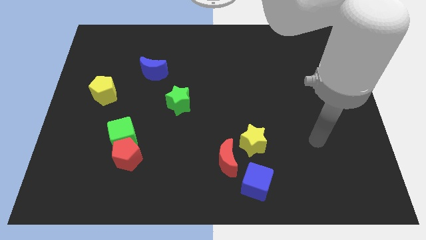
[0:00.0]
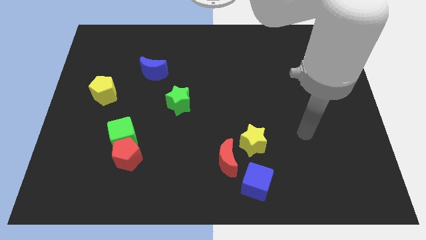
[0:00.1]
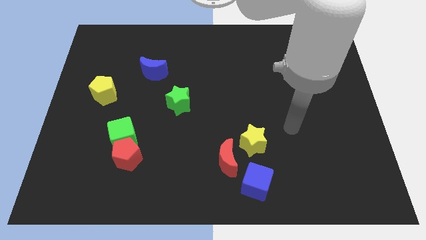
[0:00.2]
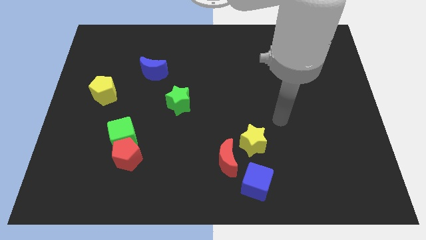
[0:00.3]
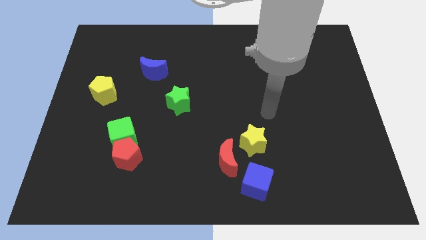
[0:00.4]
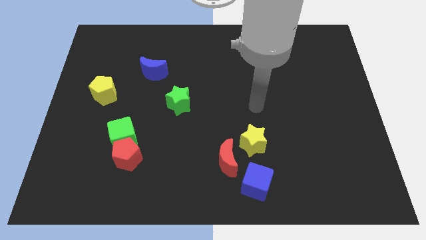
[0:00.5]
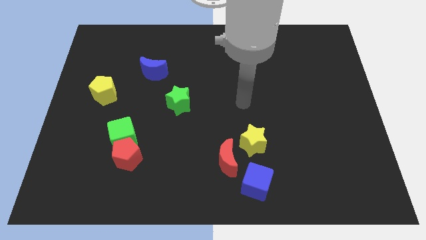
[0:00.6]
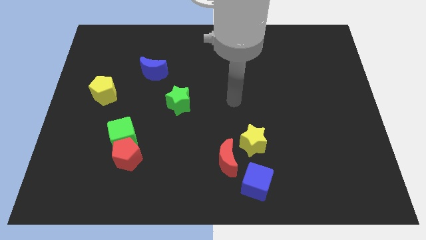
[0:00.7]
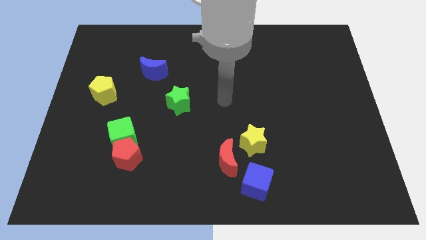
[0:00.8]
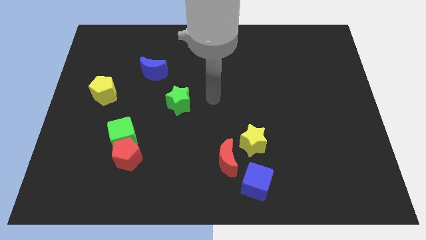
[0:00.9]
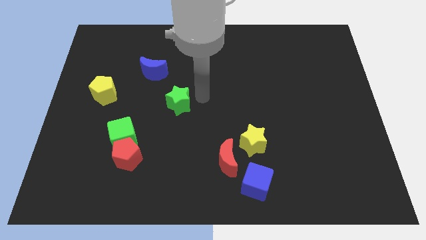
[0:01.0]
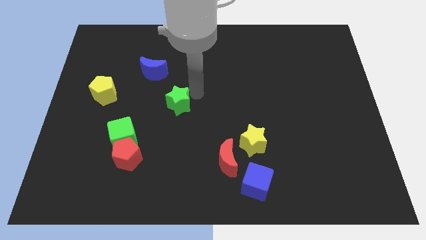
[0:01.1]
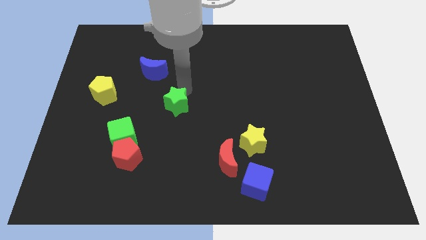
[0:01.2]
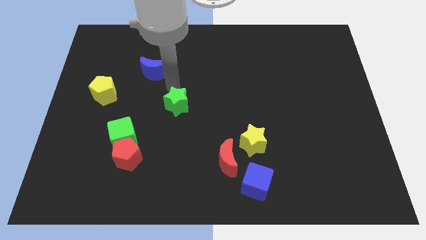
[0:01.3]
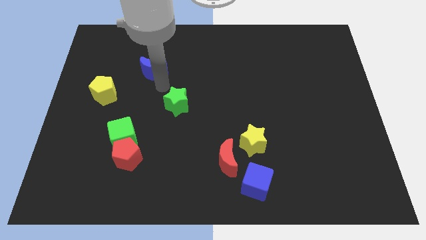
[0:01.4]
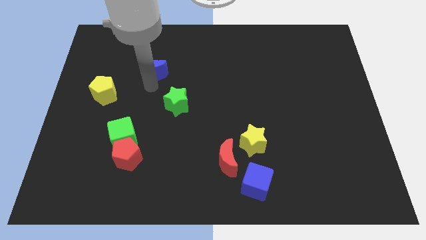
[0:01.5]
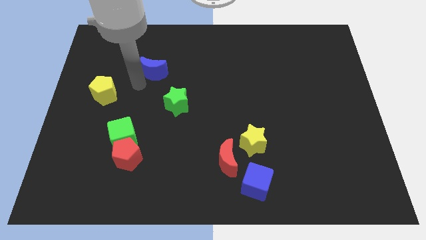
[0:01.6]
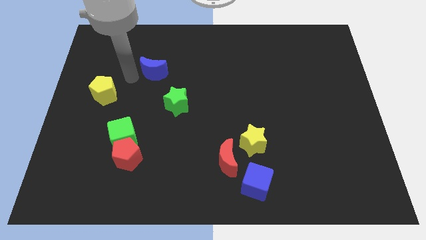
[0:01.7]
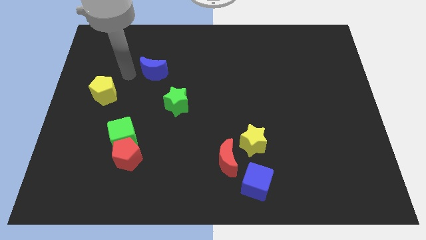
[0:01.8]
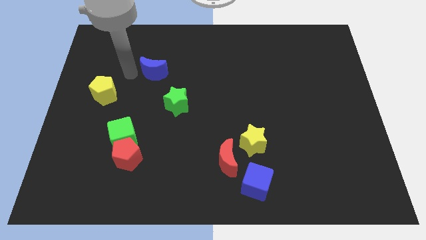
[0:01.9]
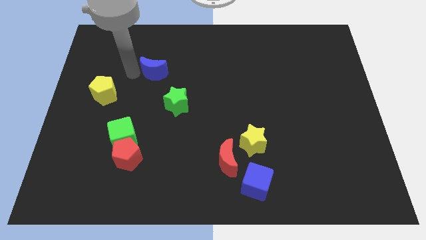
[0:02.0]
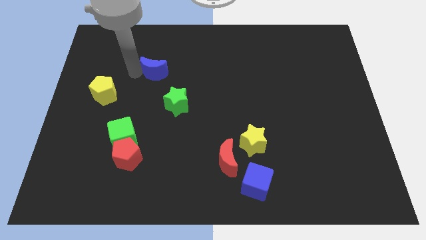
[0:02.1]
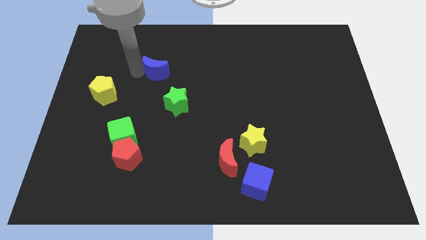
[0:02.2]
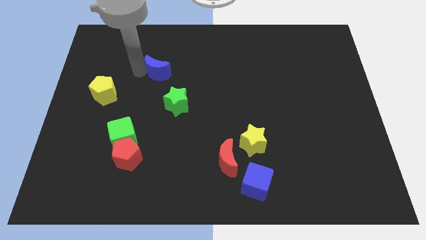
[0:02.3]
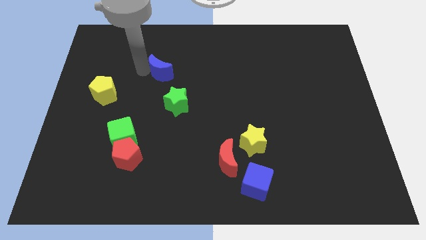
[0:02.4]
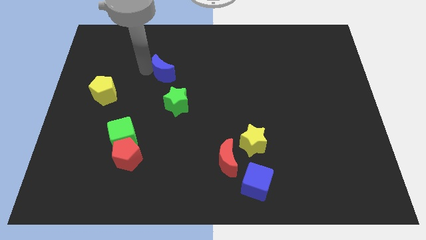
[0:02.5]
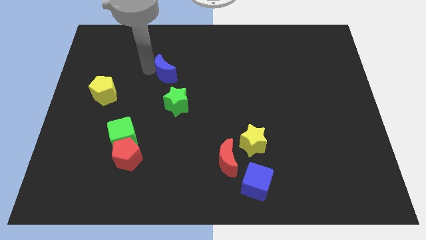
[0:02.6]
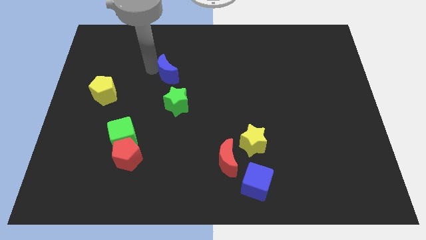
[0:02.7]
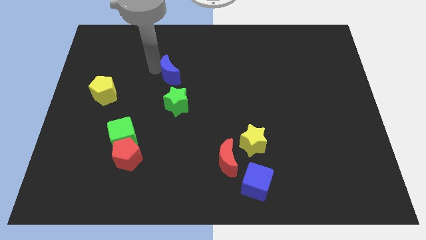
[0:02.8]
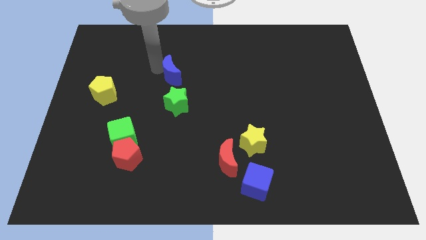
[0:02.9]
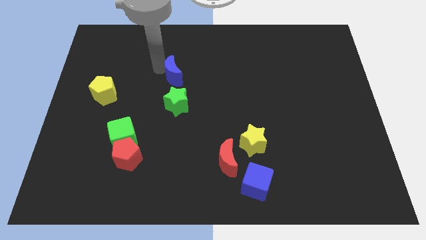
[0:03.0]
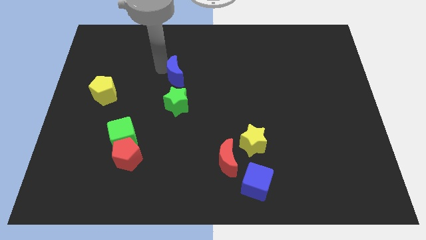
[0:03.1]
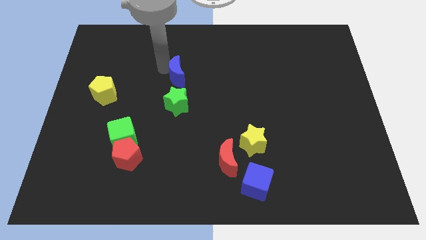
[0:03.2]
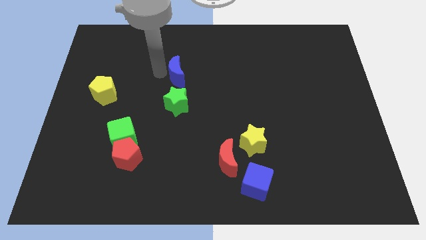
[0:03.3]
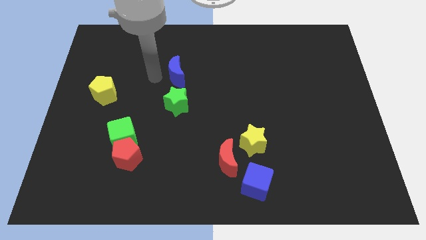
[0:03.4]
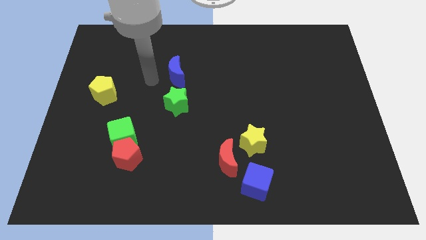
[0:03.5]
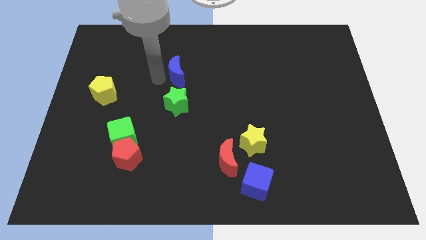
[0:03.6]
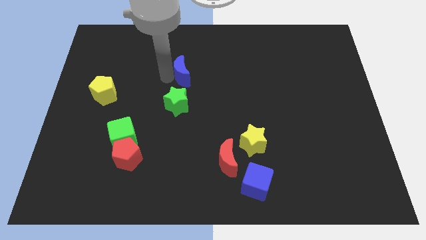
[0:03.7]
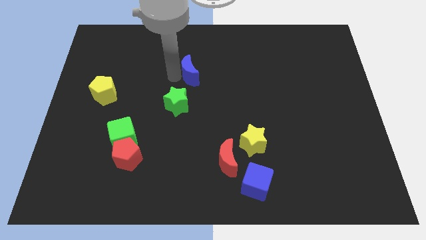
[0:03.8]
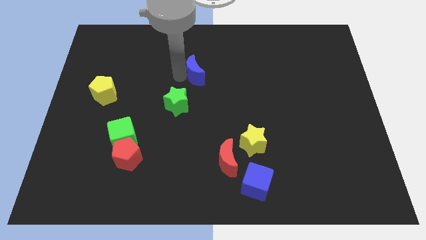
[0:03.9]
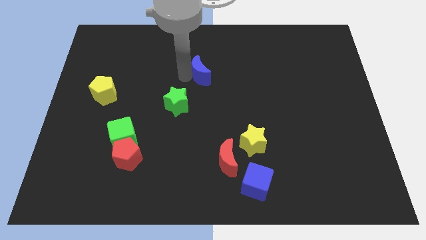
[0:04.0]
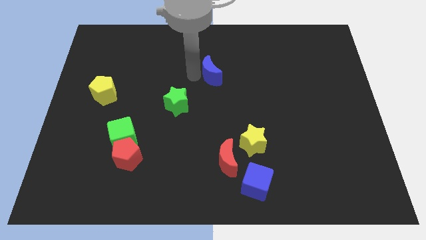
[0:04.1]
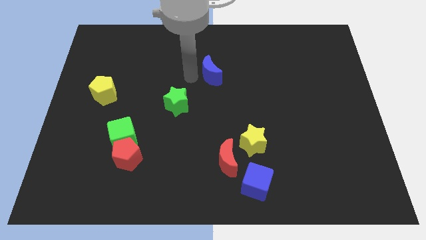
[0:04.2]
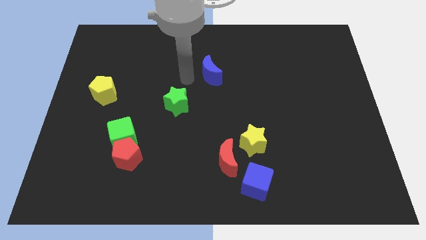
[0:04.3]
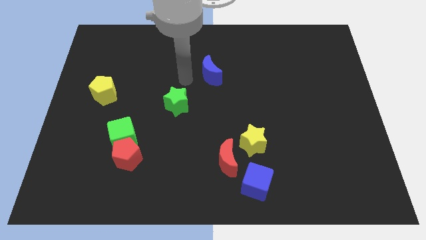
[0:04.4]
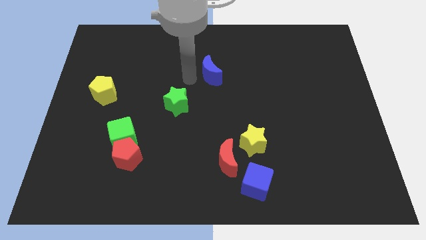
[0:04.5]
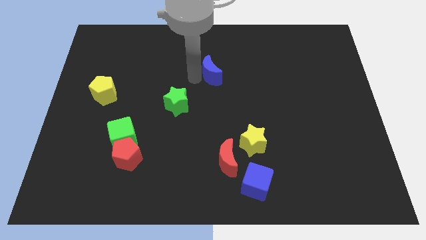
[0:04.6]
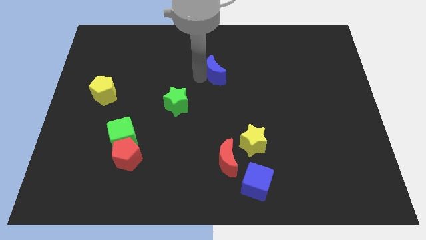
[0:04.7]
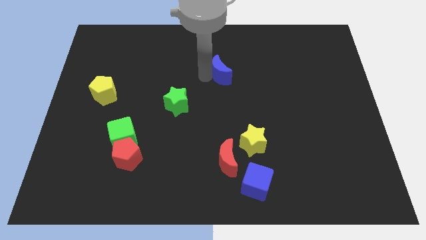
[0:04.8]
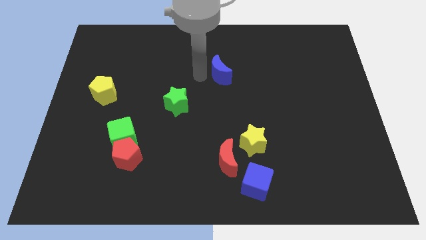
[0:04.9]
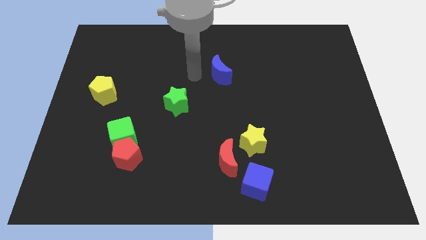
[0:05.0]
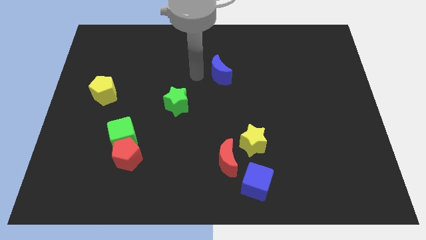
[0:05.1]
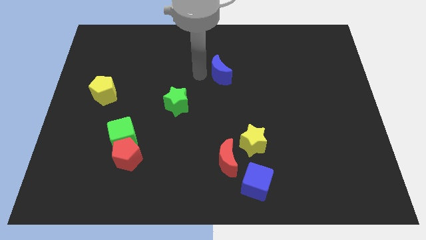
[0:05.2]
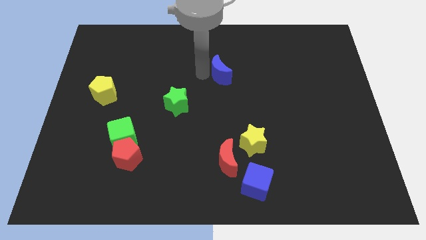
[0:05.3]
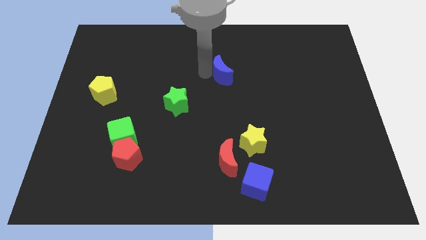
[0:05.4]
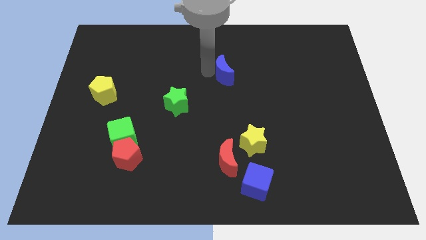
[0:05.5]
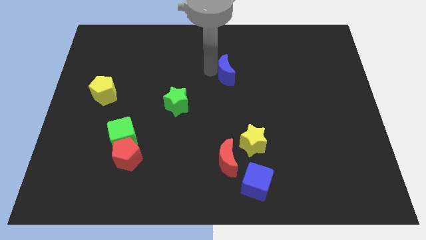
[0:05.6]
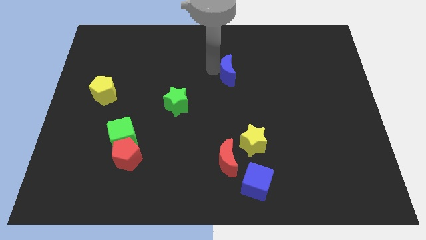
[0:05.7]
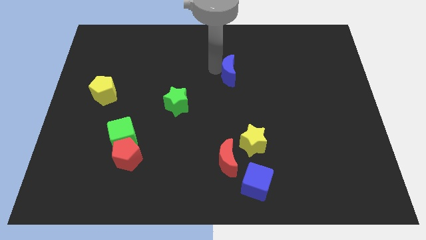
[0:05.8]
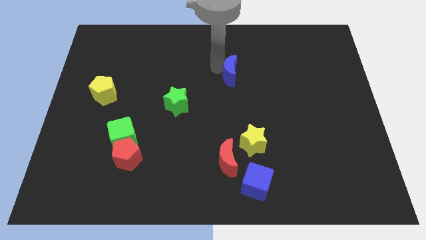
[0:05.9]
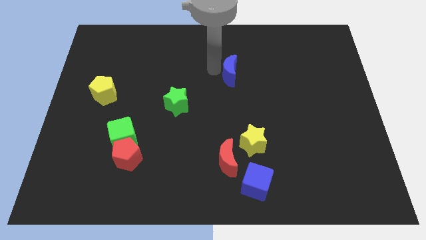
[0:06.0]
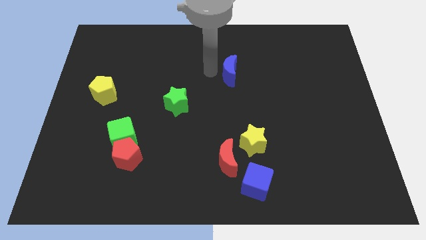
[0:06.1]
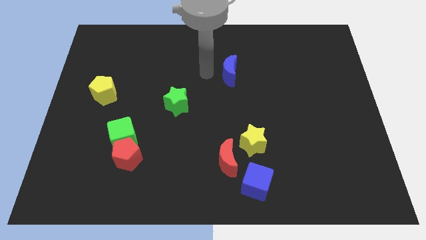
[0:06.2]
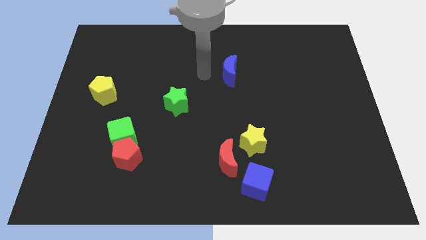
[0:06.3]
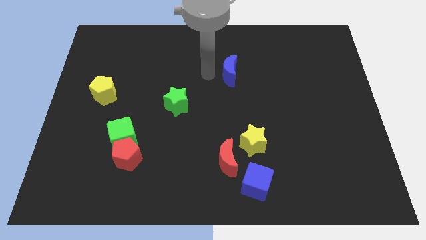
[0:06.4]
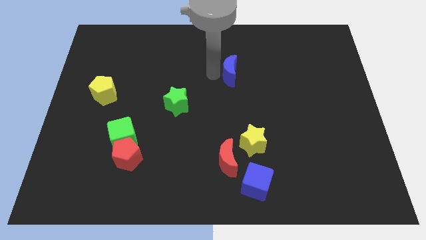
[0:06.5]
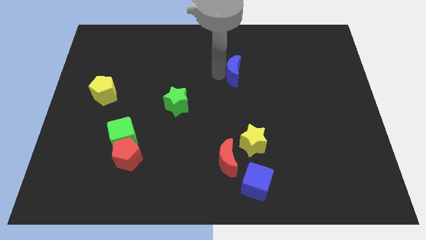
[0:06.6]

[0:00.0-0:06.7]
slide the blue moon right

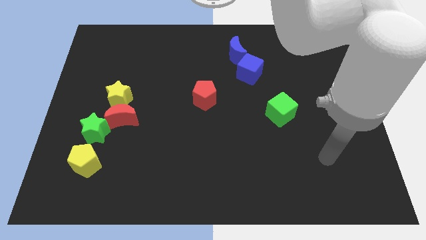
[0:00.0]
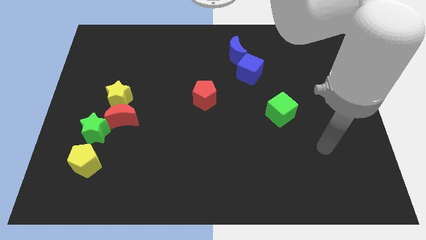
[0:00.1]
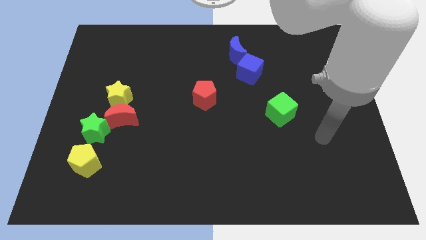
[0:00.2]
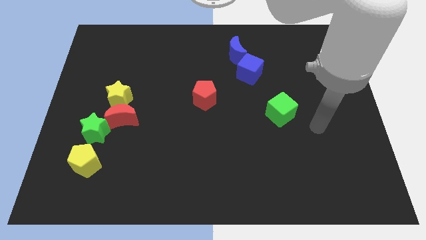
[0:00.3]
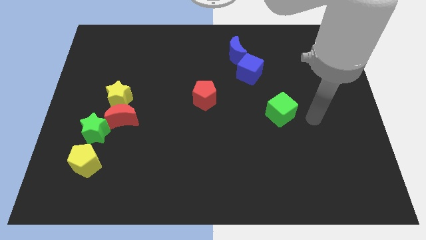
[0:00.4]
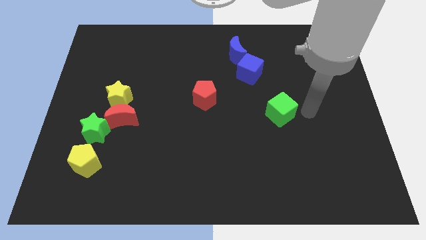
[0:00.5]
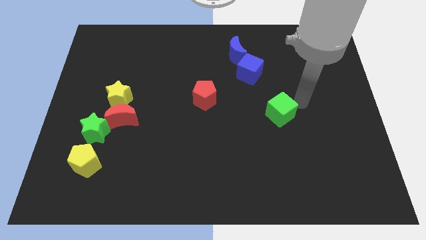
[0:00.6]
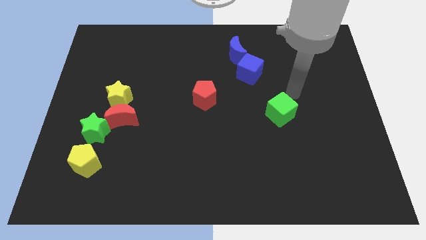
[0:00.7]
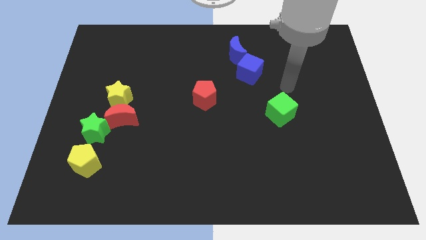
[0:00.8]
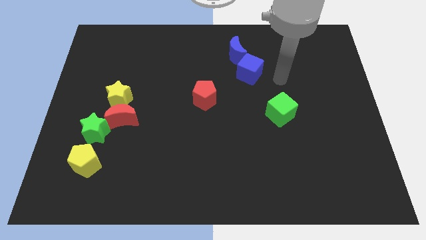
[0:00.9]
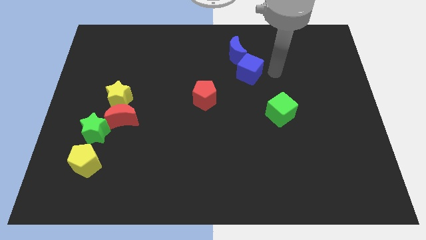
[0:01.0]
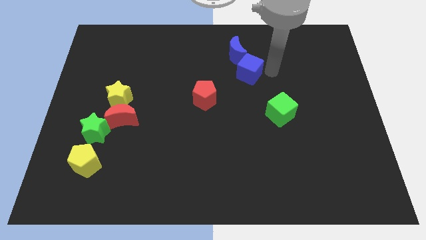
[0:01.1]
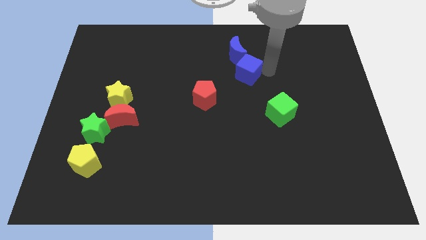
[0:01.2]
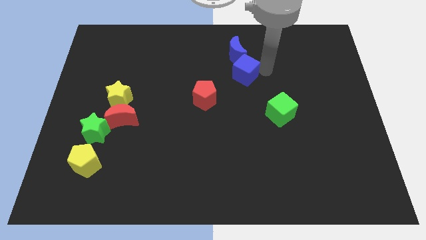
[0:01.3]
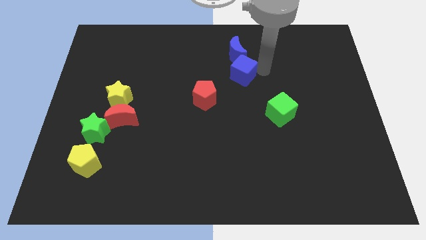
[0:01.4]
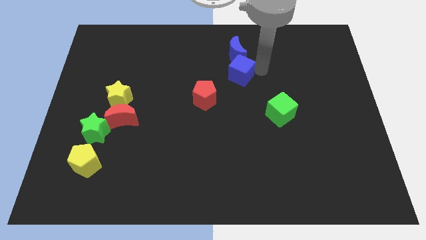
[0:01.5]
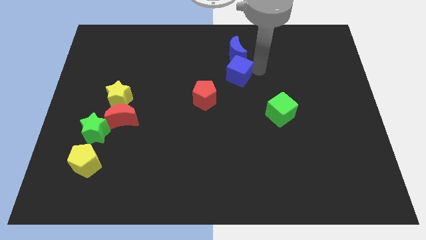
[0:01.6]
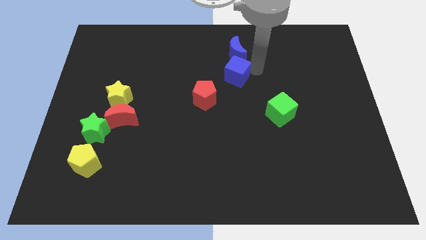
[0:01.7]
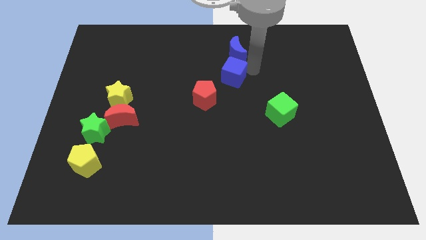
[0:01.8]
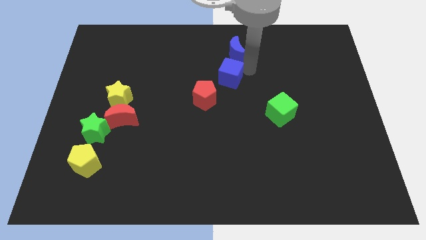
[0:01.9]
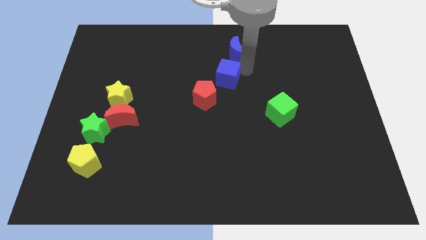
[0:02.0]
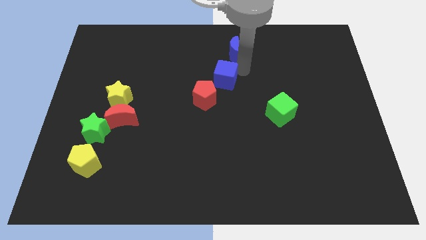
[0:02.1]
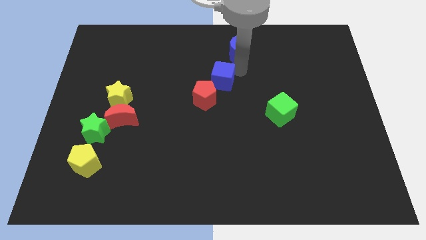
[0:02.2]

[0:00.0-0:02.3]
push the blue cube a bit left
